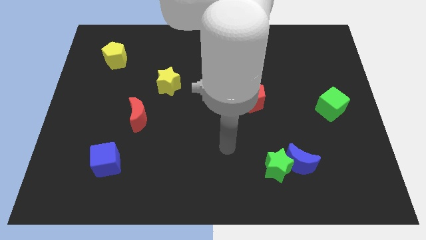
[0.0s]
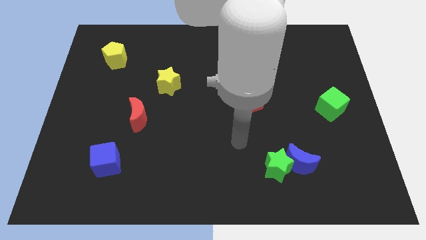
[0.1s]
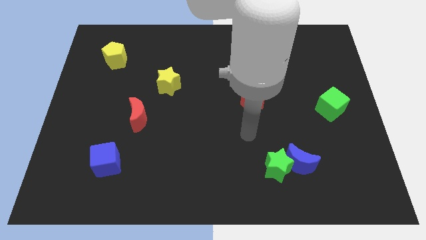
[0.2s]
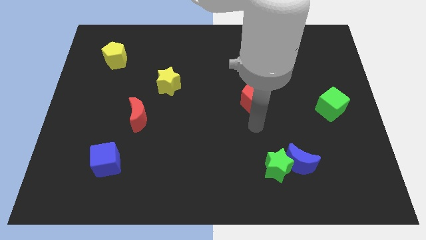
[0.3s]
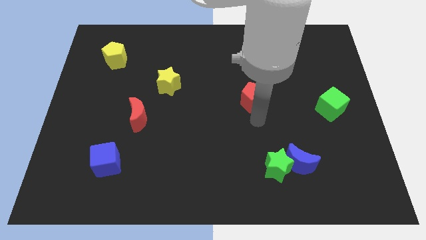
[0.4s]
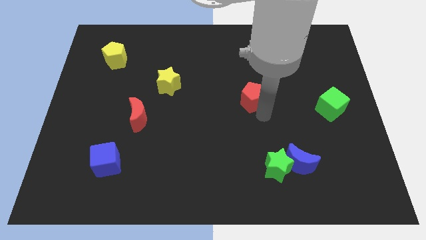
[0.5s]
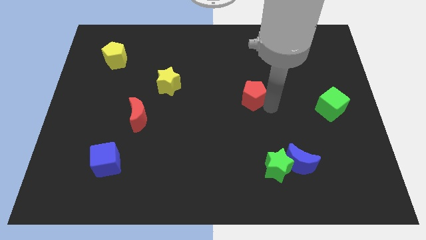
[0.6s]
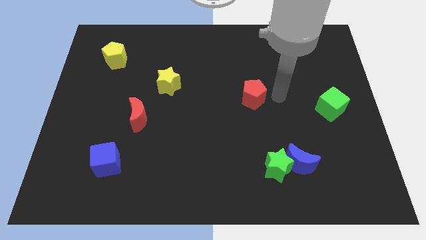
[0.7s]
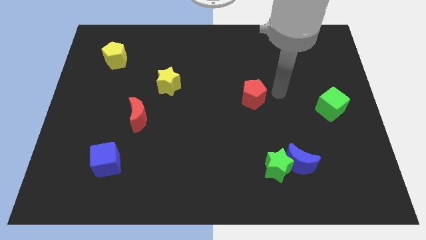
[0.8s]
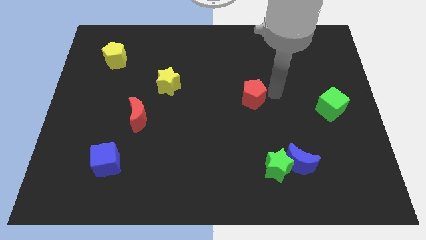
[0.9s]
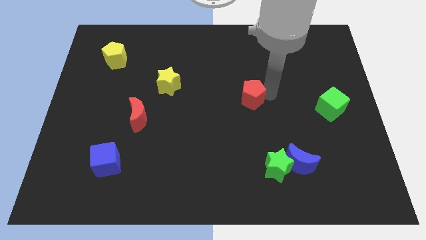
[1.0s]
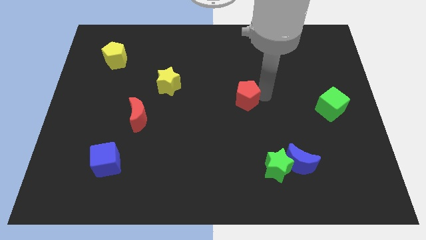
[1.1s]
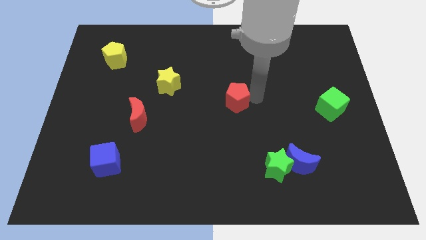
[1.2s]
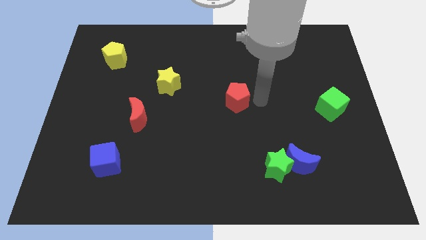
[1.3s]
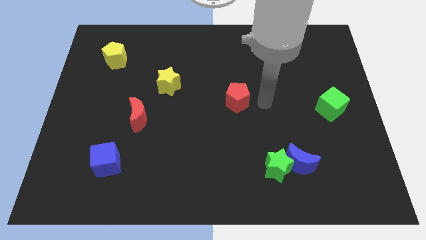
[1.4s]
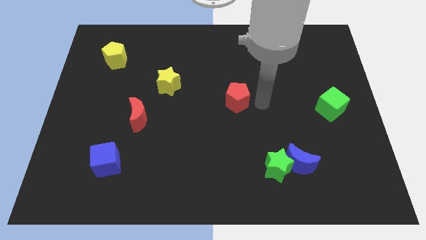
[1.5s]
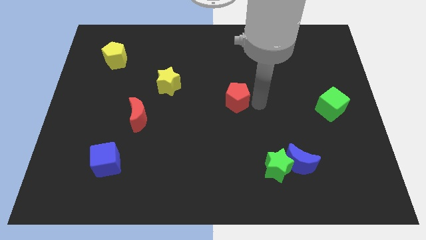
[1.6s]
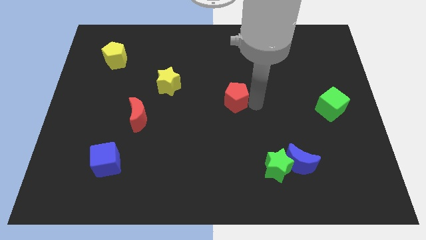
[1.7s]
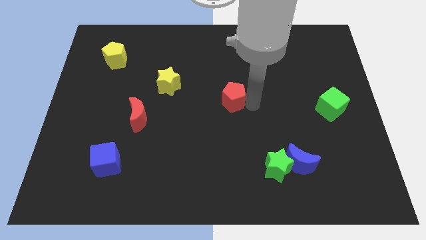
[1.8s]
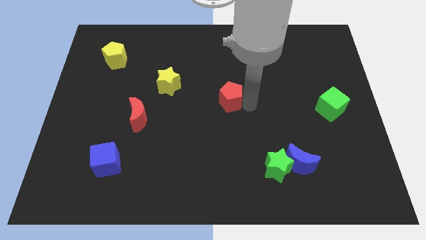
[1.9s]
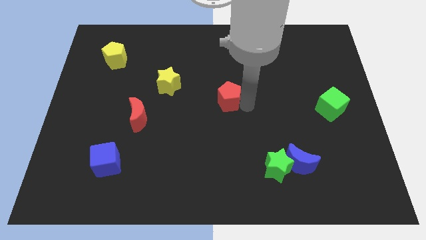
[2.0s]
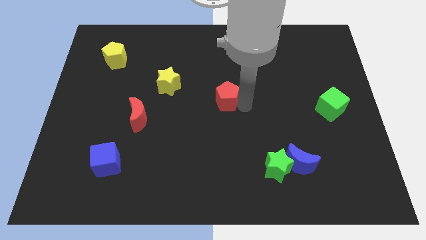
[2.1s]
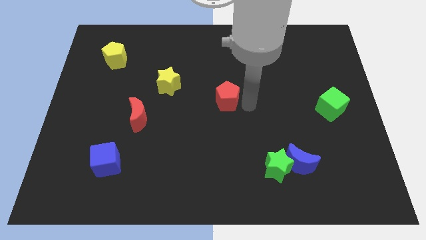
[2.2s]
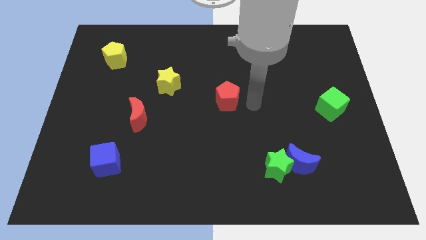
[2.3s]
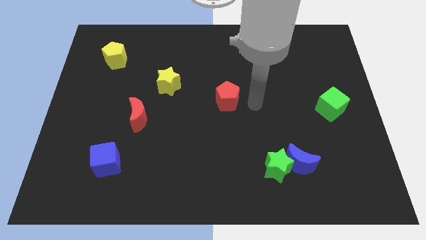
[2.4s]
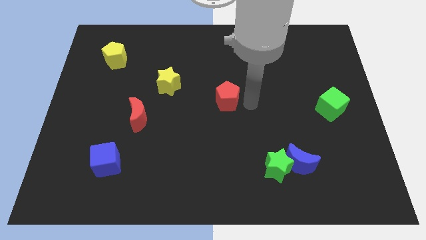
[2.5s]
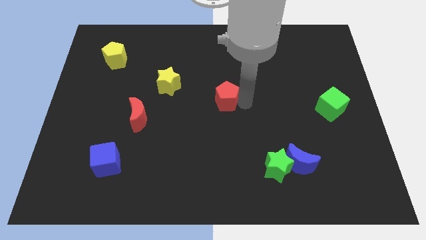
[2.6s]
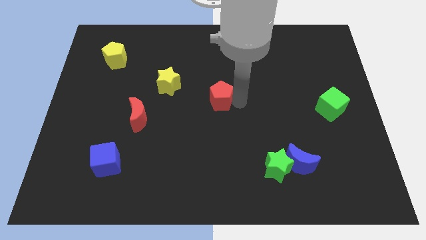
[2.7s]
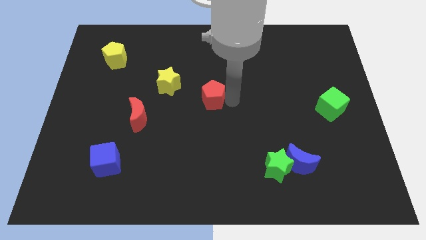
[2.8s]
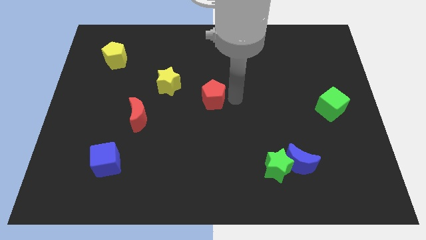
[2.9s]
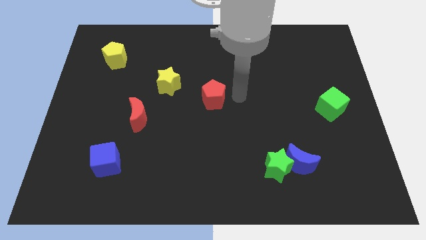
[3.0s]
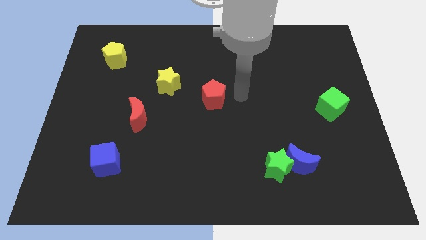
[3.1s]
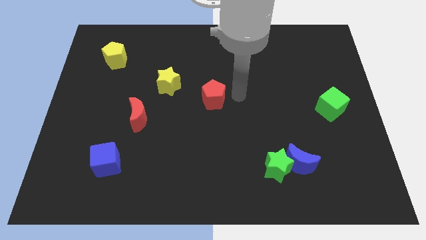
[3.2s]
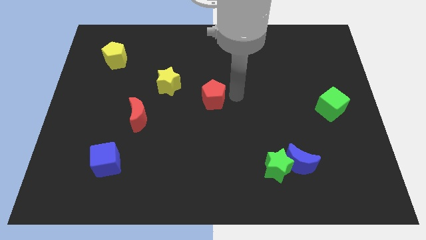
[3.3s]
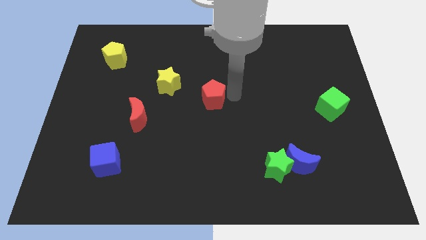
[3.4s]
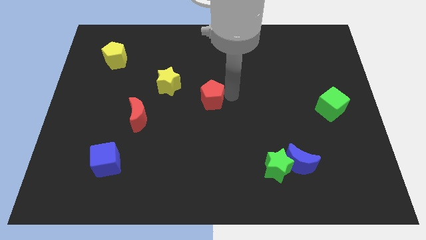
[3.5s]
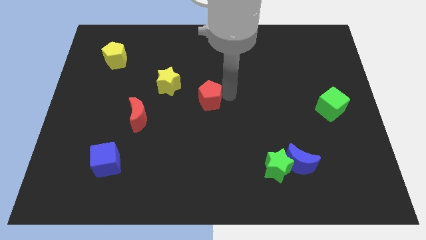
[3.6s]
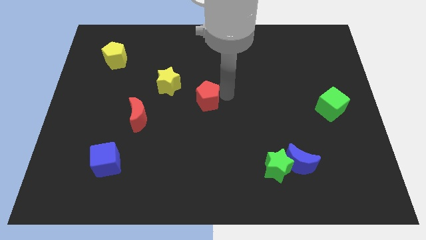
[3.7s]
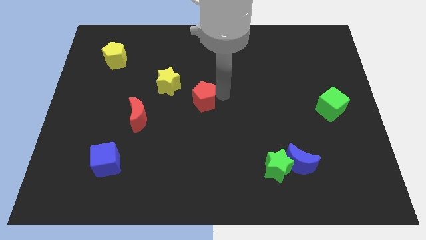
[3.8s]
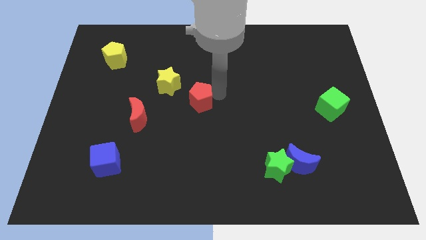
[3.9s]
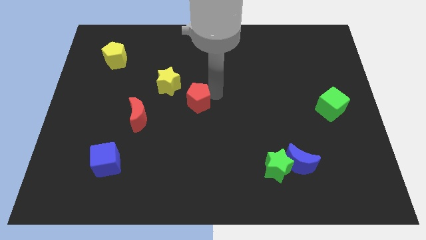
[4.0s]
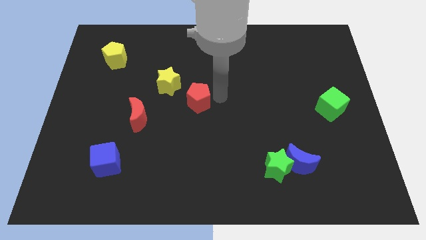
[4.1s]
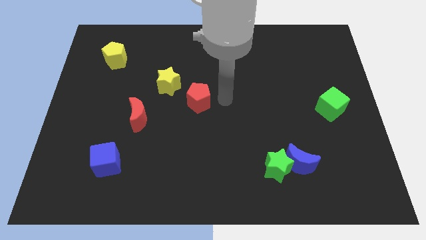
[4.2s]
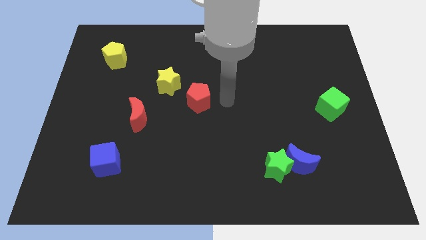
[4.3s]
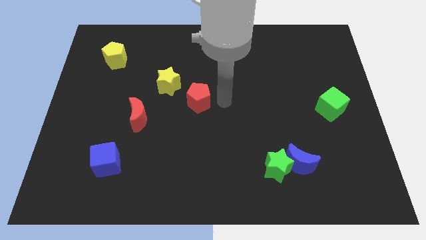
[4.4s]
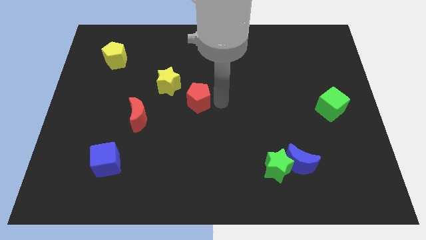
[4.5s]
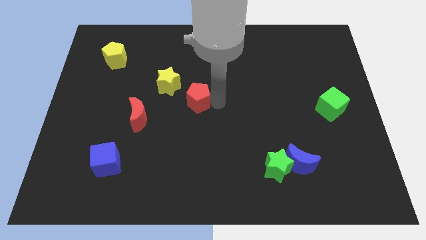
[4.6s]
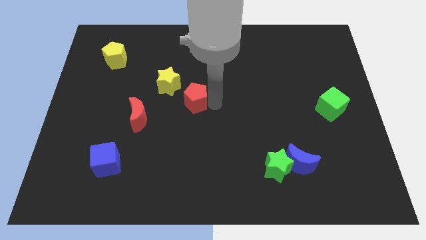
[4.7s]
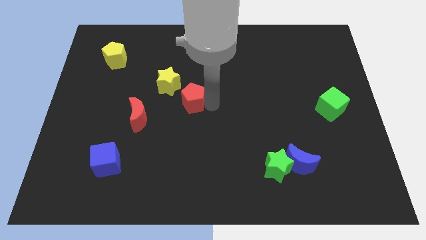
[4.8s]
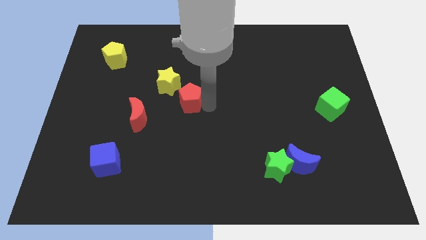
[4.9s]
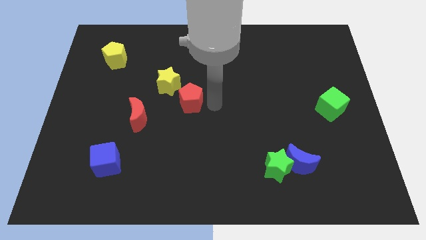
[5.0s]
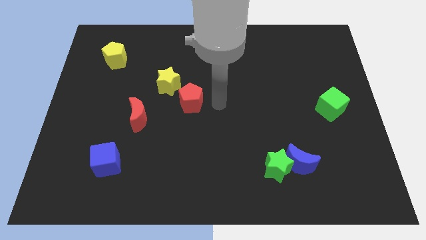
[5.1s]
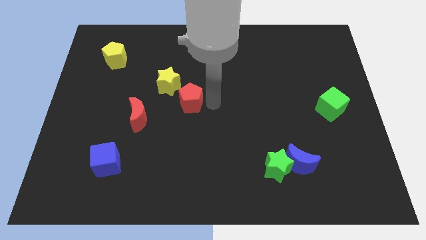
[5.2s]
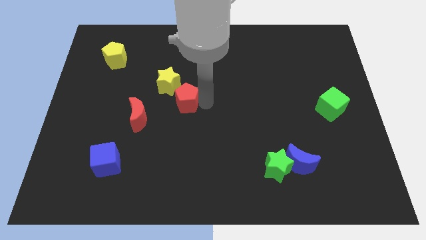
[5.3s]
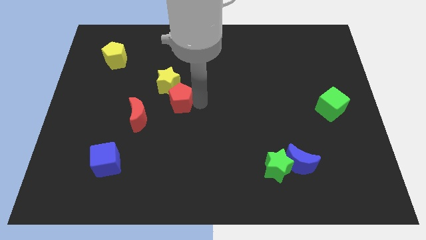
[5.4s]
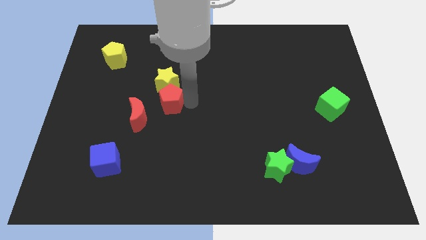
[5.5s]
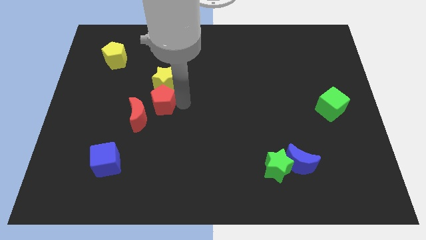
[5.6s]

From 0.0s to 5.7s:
move the red pentagon left

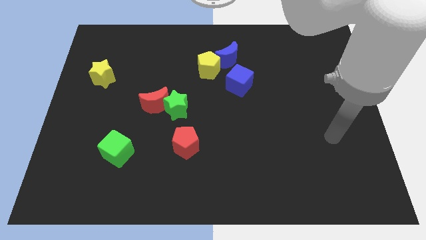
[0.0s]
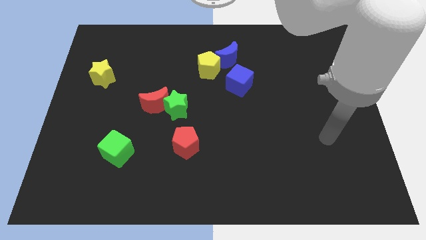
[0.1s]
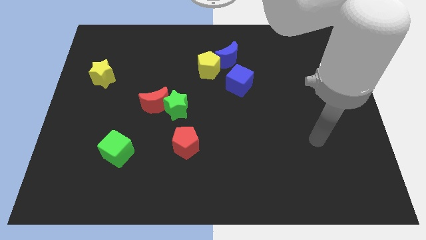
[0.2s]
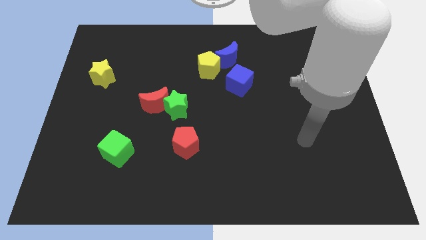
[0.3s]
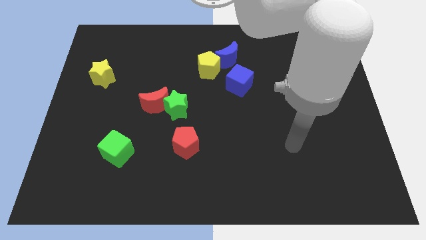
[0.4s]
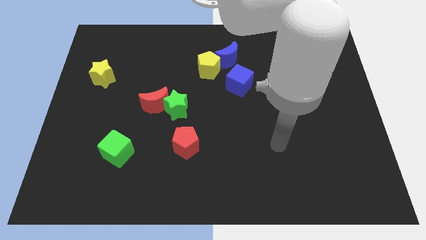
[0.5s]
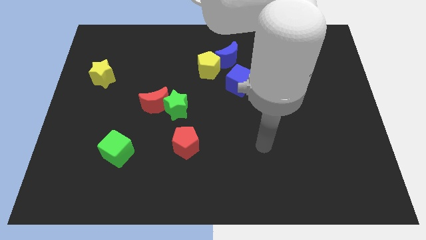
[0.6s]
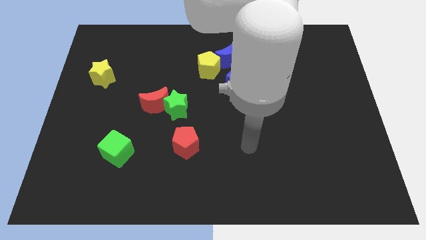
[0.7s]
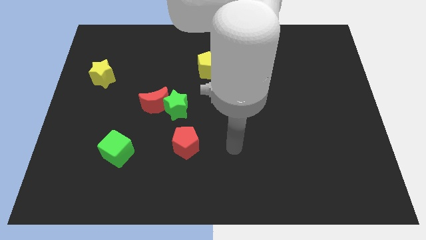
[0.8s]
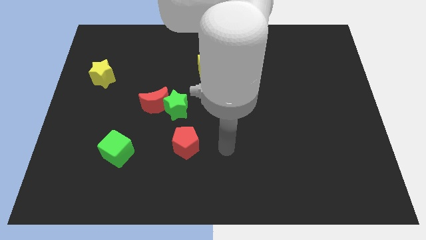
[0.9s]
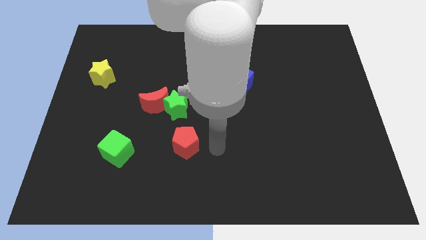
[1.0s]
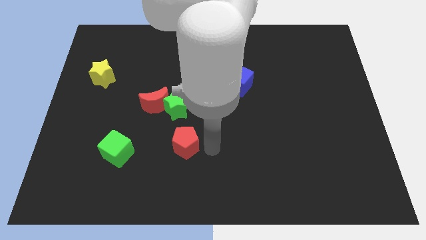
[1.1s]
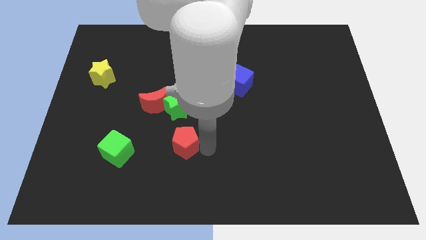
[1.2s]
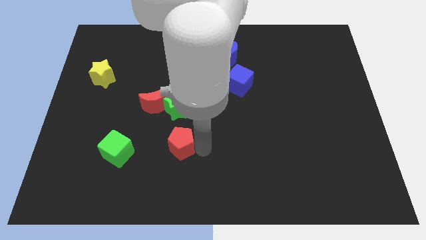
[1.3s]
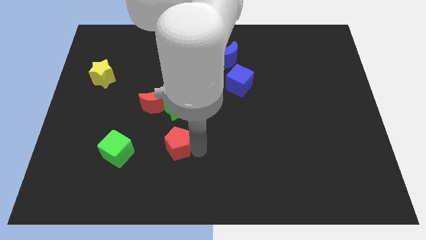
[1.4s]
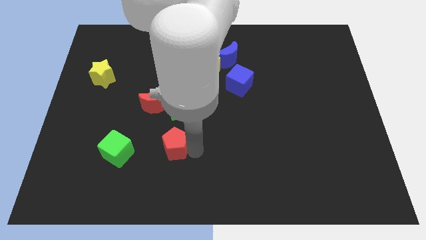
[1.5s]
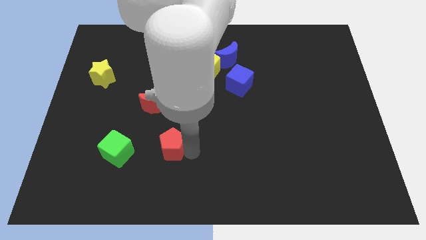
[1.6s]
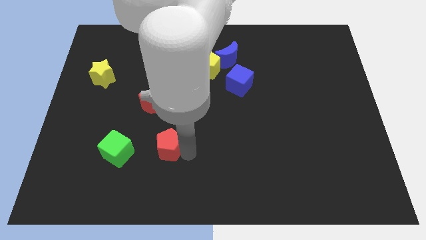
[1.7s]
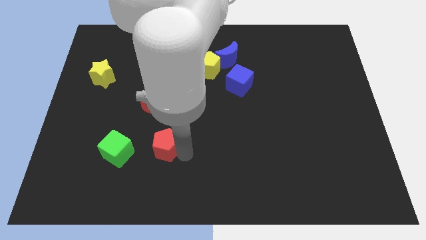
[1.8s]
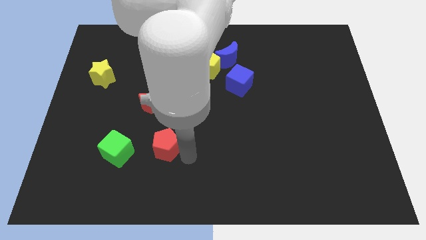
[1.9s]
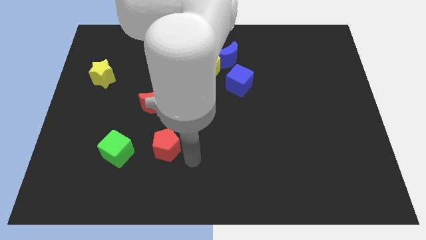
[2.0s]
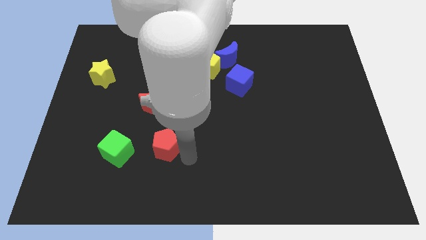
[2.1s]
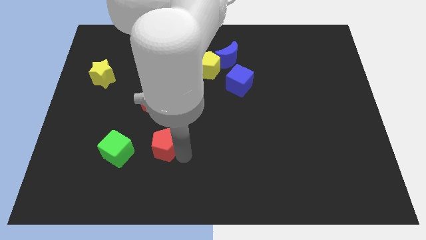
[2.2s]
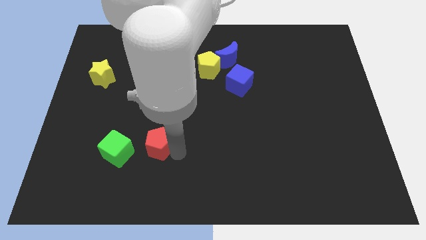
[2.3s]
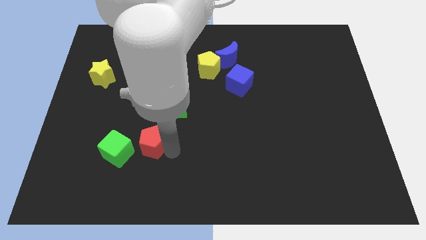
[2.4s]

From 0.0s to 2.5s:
push the red pentagon a bit to the left
